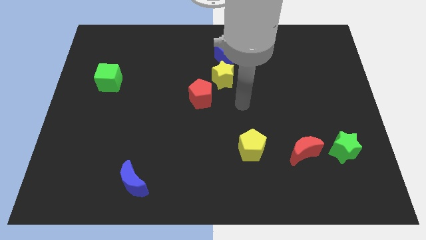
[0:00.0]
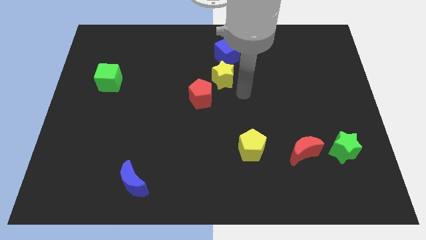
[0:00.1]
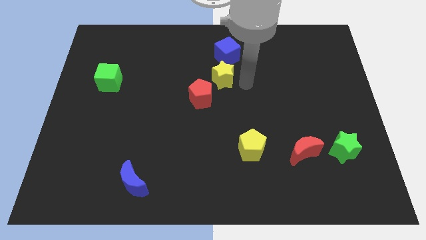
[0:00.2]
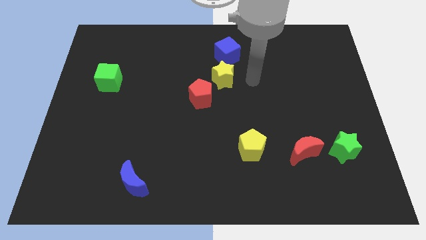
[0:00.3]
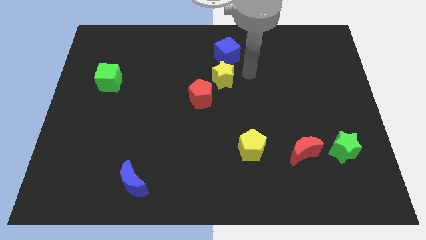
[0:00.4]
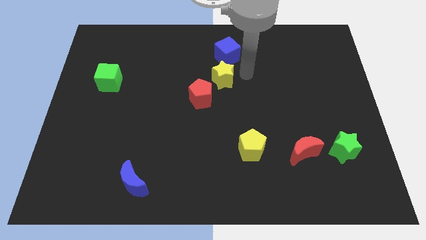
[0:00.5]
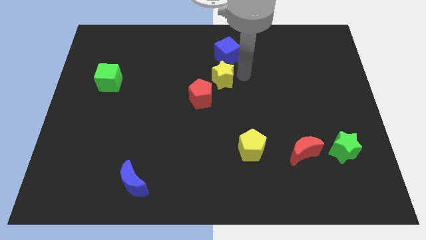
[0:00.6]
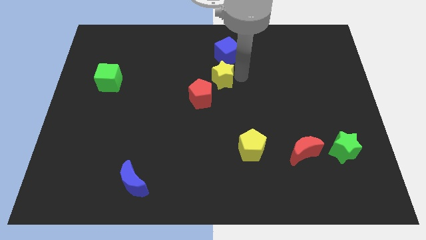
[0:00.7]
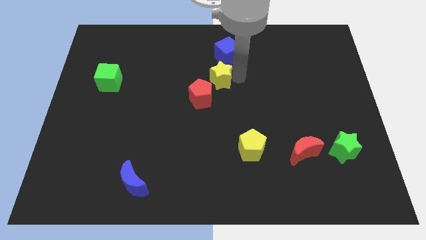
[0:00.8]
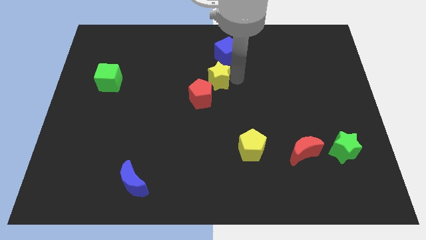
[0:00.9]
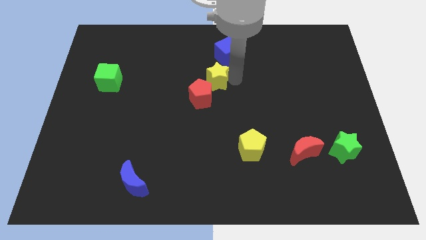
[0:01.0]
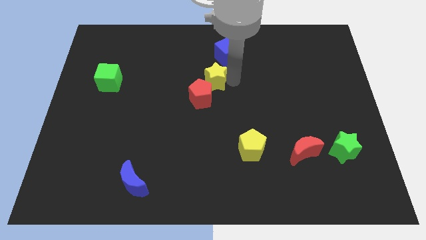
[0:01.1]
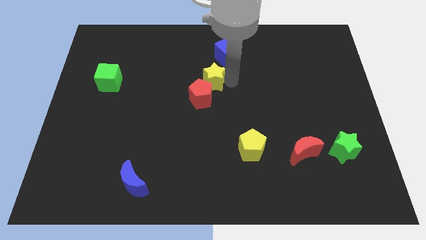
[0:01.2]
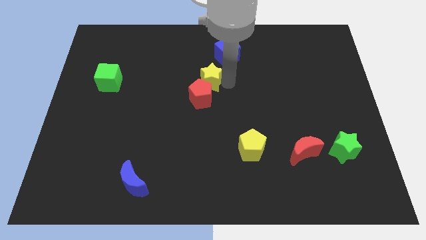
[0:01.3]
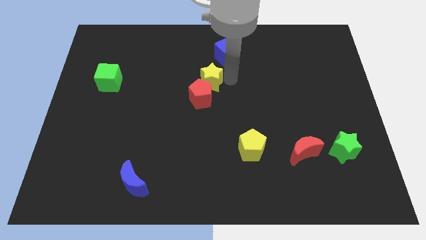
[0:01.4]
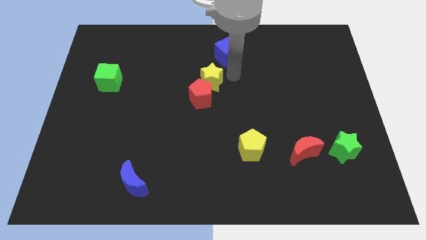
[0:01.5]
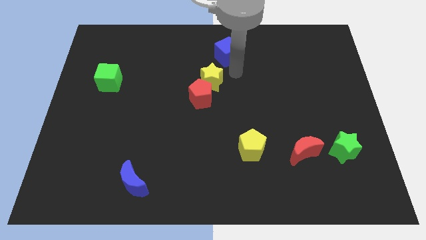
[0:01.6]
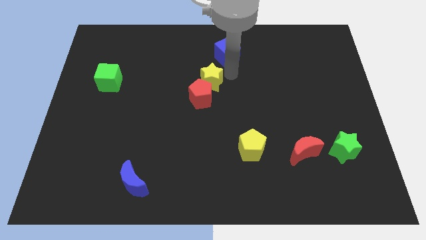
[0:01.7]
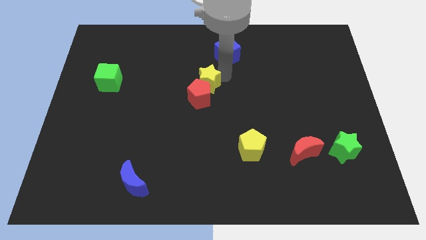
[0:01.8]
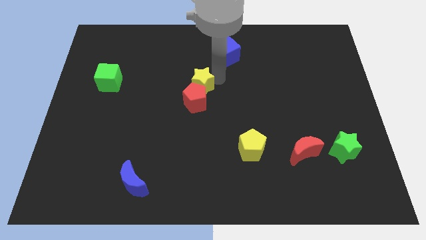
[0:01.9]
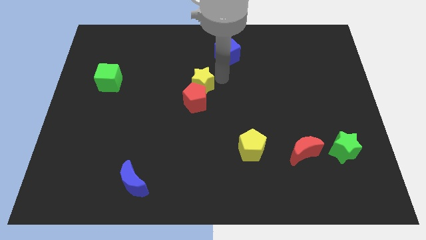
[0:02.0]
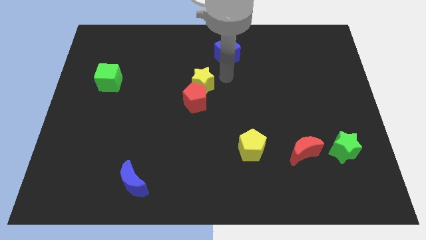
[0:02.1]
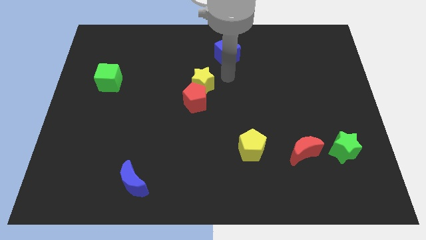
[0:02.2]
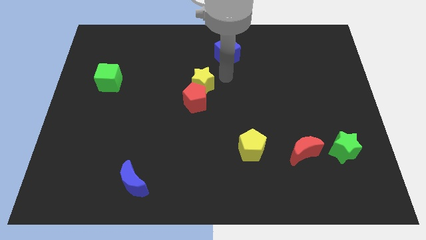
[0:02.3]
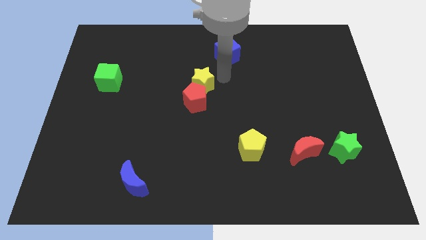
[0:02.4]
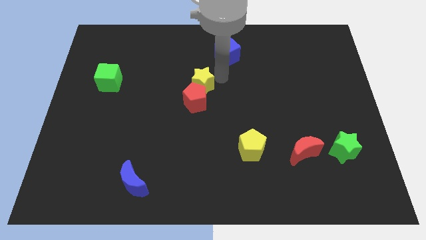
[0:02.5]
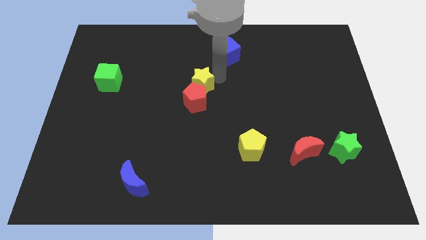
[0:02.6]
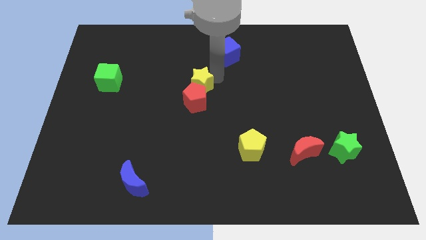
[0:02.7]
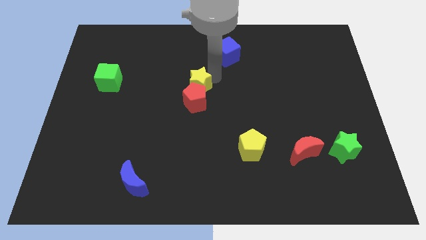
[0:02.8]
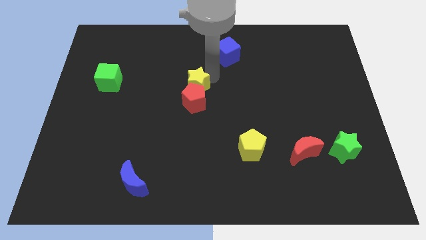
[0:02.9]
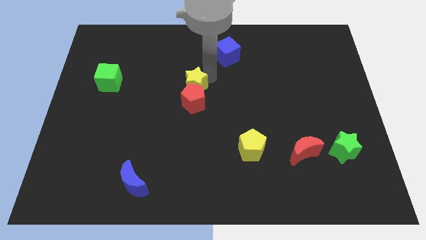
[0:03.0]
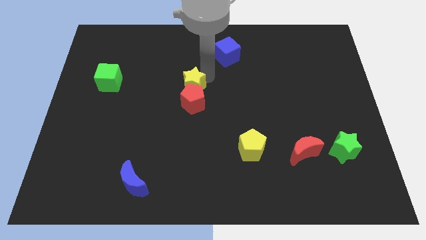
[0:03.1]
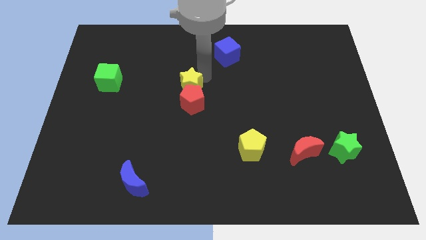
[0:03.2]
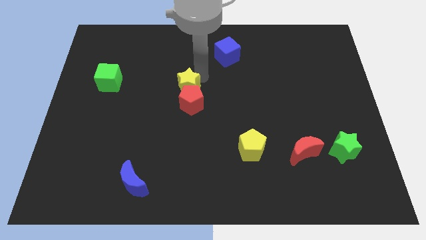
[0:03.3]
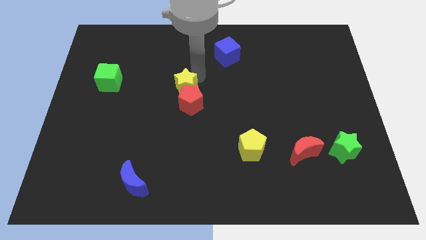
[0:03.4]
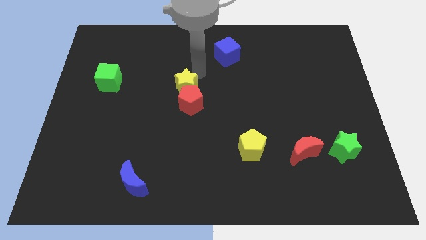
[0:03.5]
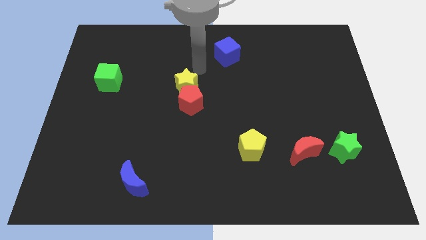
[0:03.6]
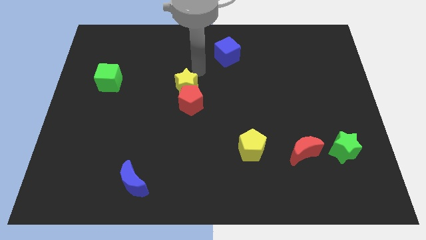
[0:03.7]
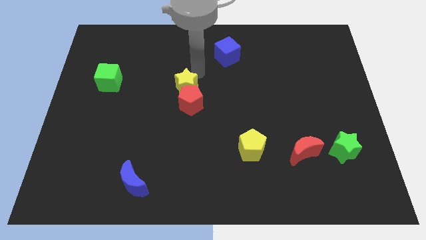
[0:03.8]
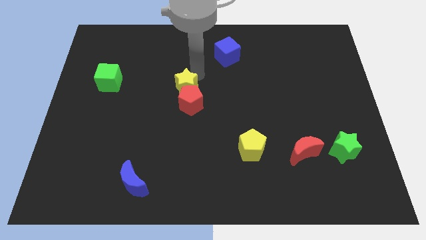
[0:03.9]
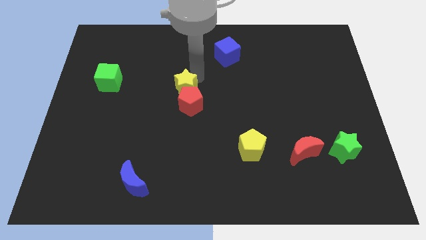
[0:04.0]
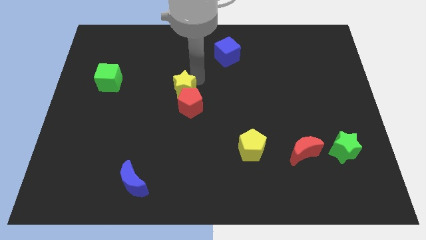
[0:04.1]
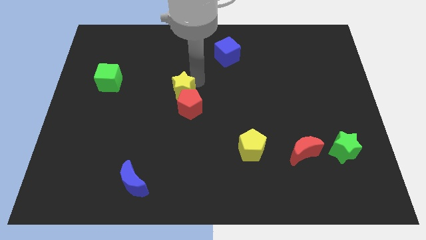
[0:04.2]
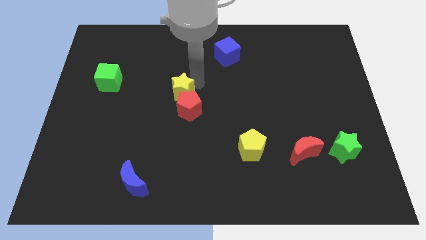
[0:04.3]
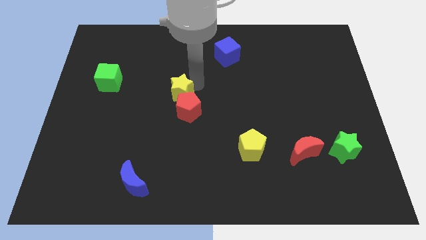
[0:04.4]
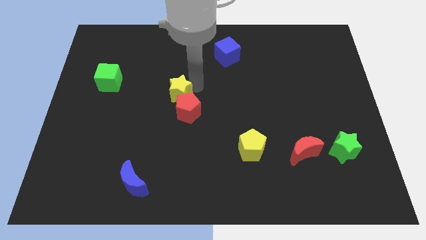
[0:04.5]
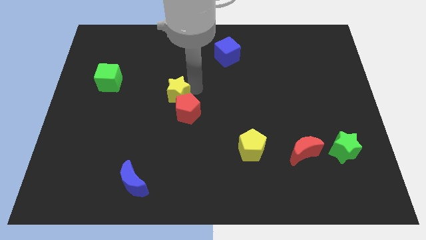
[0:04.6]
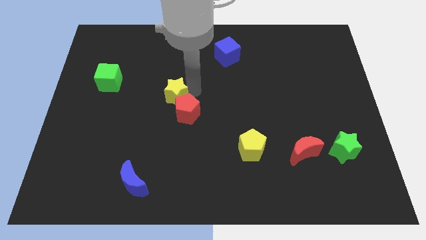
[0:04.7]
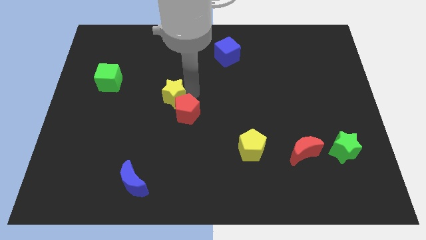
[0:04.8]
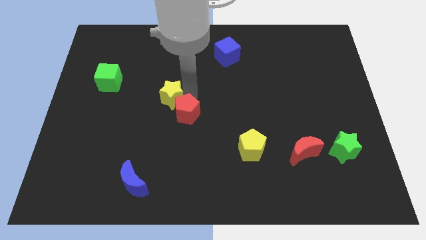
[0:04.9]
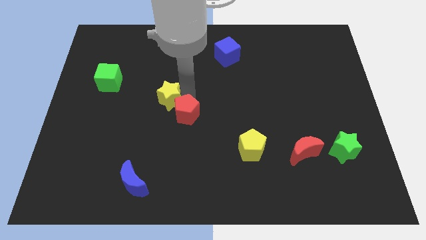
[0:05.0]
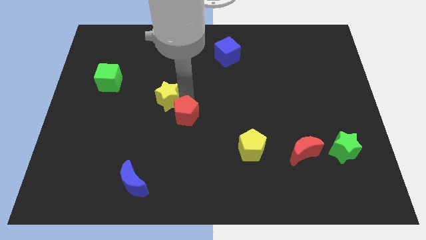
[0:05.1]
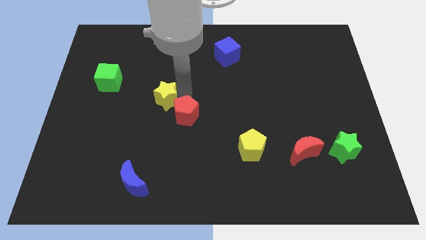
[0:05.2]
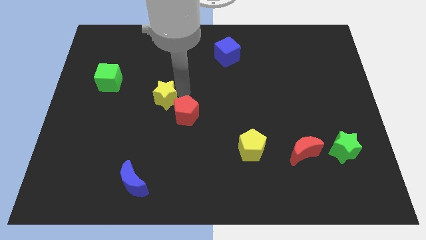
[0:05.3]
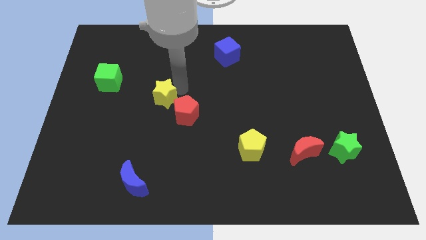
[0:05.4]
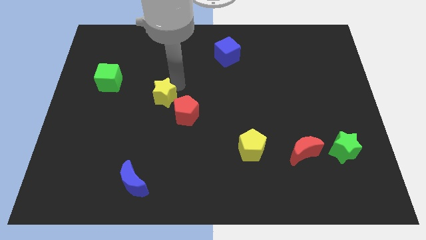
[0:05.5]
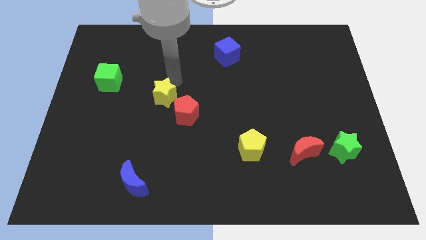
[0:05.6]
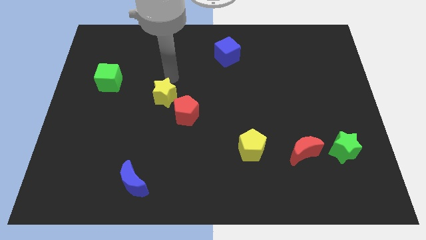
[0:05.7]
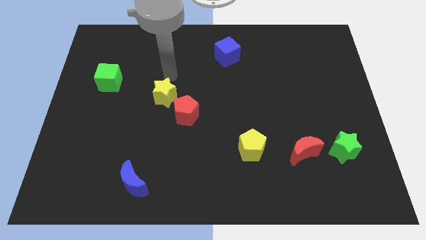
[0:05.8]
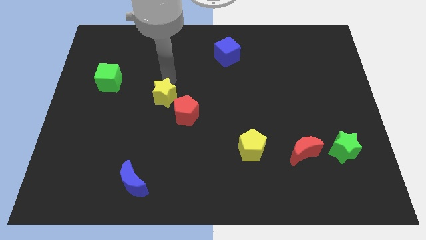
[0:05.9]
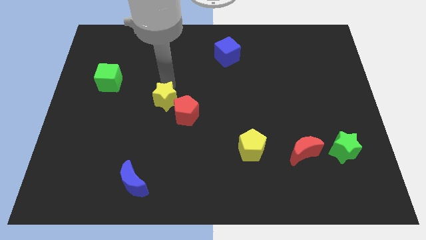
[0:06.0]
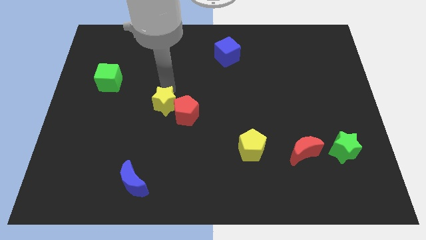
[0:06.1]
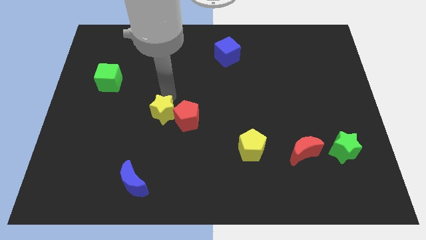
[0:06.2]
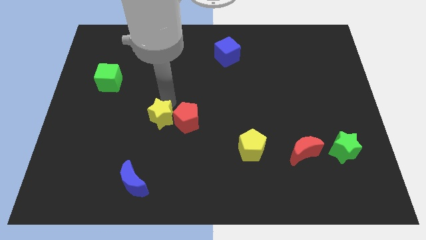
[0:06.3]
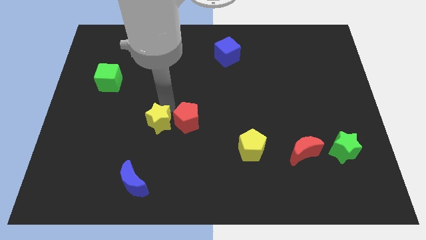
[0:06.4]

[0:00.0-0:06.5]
push the yellow star down and then to the left

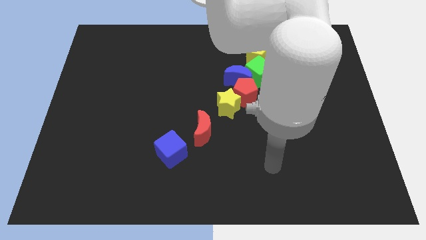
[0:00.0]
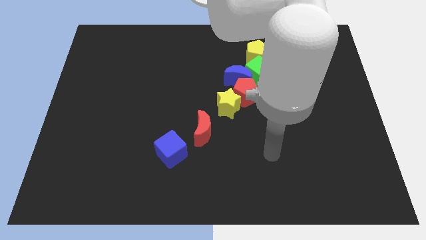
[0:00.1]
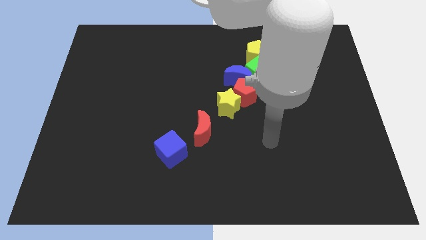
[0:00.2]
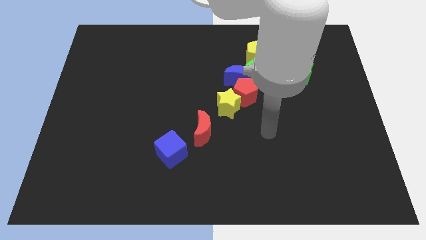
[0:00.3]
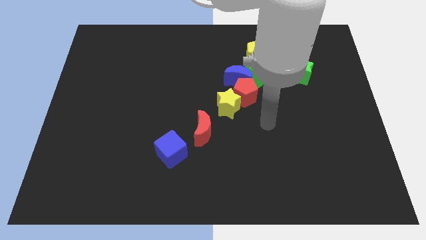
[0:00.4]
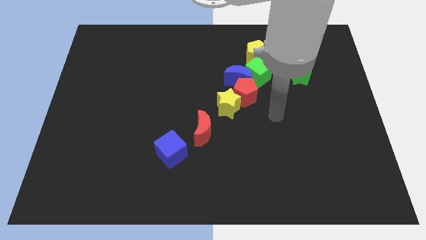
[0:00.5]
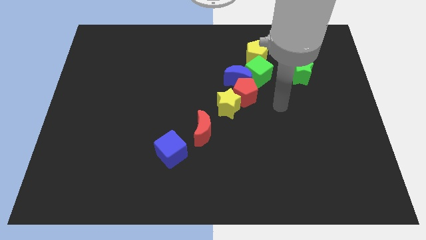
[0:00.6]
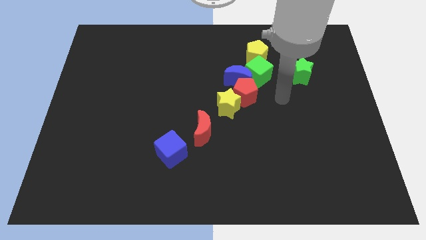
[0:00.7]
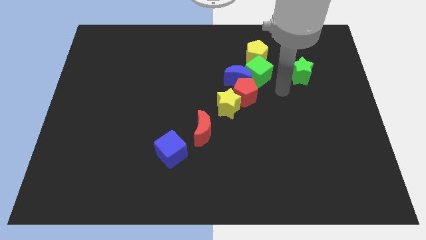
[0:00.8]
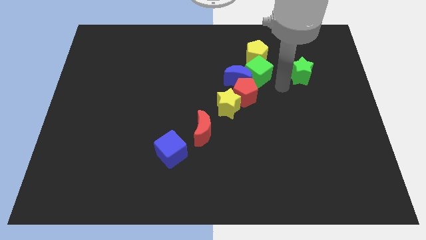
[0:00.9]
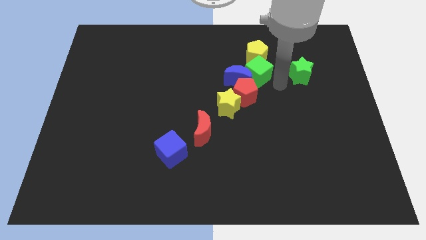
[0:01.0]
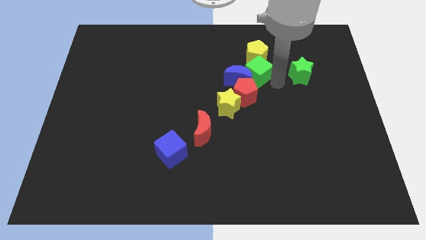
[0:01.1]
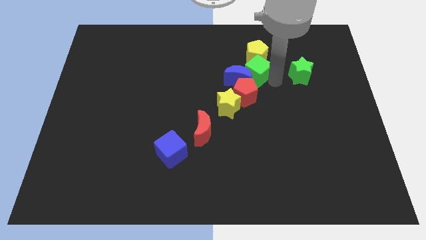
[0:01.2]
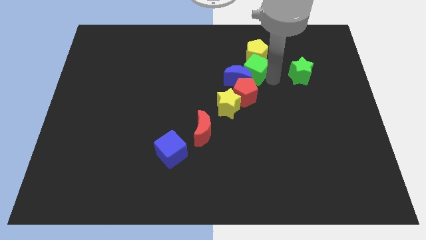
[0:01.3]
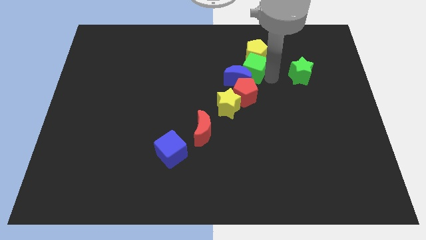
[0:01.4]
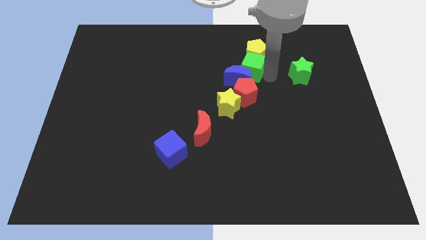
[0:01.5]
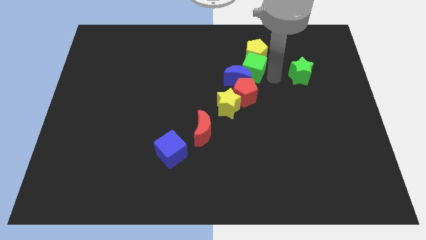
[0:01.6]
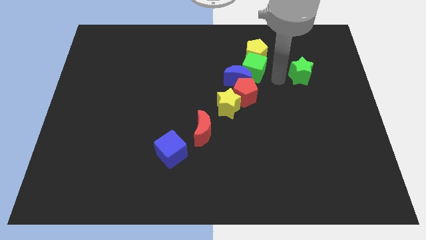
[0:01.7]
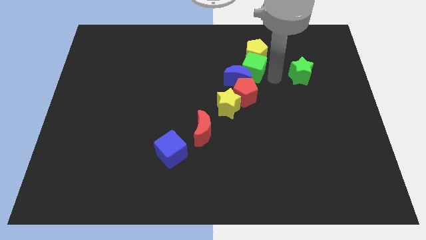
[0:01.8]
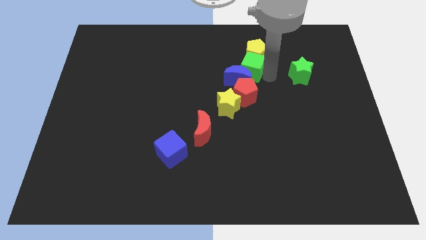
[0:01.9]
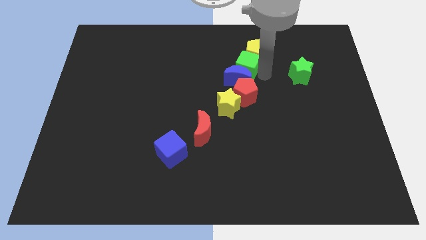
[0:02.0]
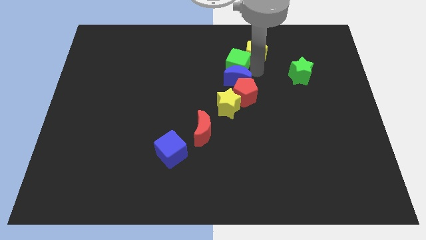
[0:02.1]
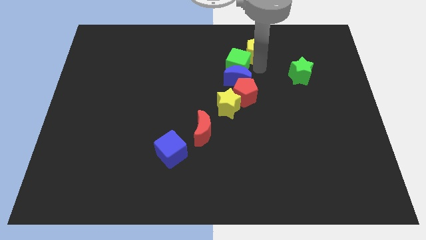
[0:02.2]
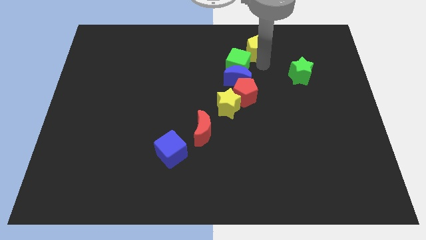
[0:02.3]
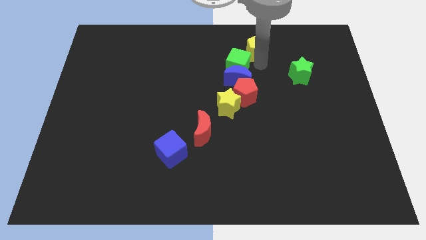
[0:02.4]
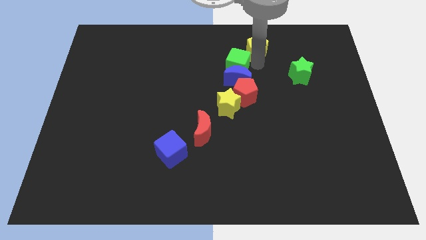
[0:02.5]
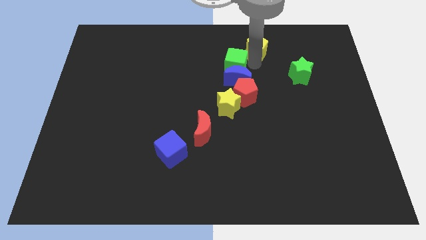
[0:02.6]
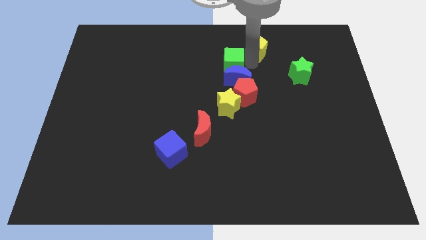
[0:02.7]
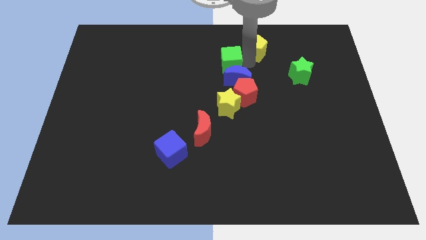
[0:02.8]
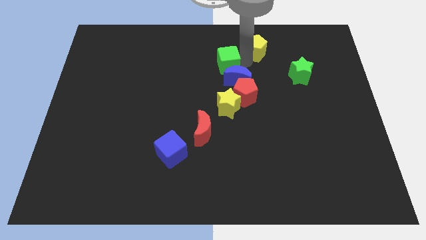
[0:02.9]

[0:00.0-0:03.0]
slightly push the green cube left
